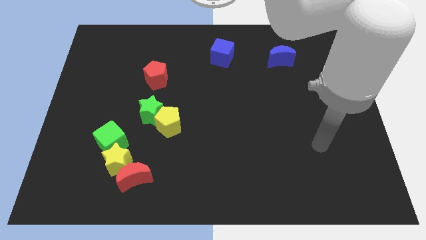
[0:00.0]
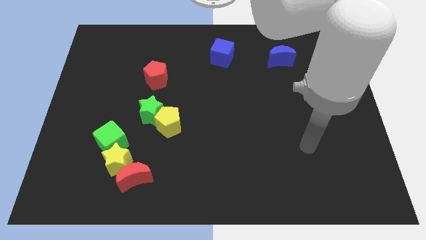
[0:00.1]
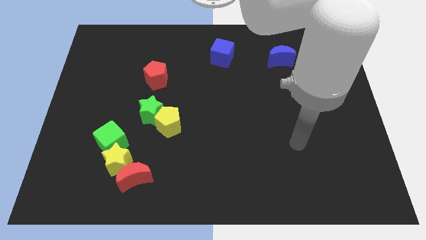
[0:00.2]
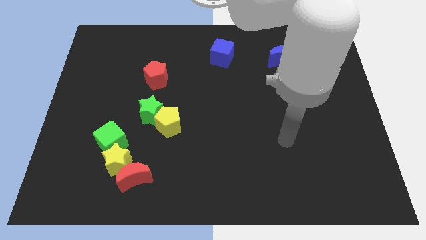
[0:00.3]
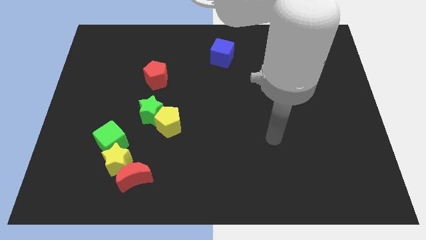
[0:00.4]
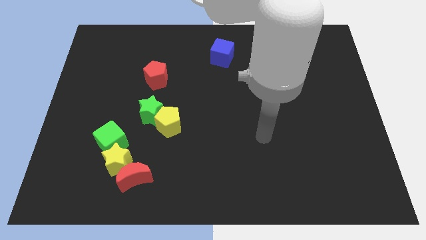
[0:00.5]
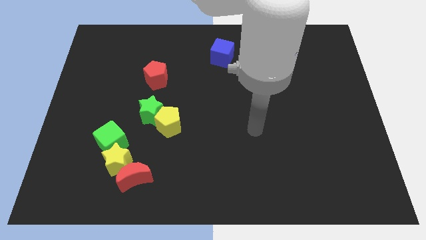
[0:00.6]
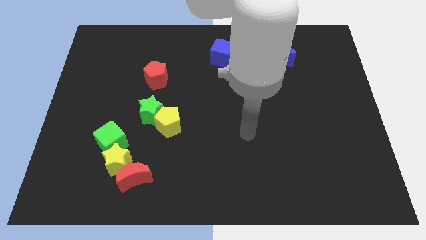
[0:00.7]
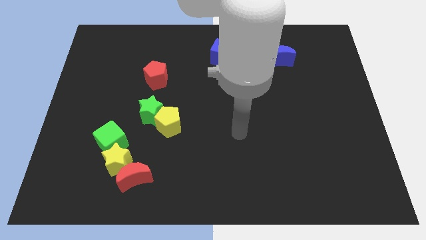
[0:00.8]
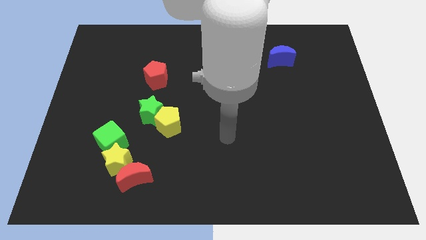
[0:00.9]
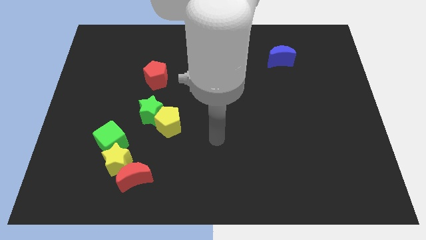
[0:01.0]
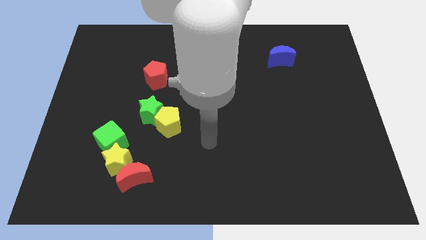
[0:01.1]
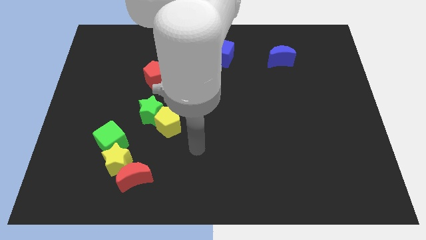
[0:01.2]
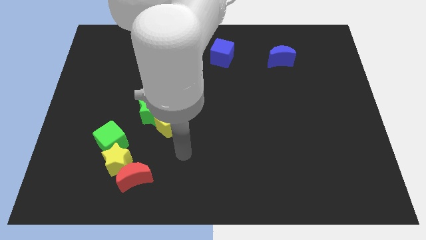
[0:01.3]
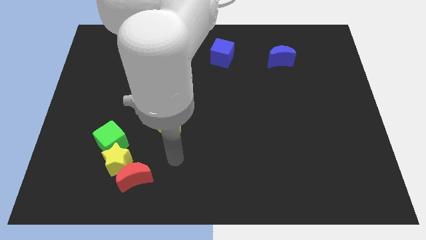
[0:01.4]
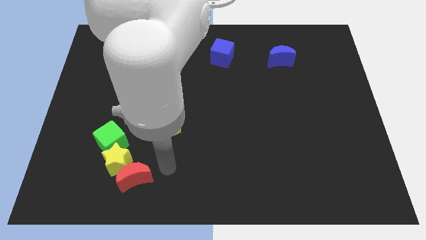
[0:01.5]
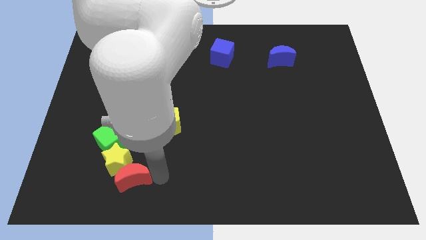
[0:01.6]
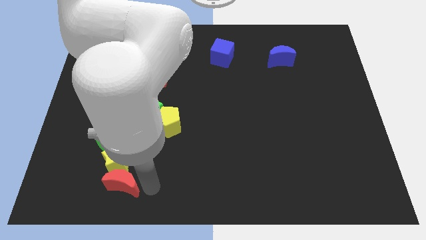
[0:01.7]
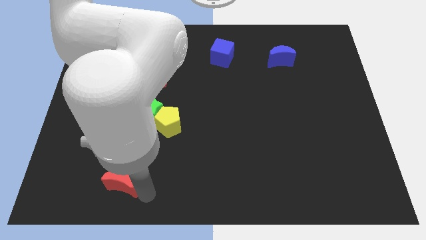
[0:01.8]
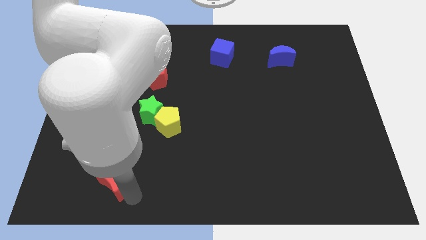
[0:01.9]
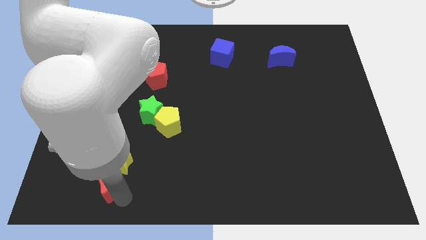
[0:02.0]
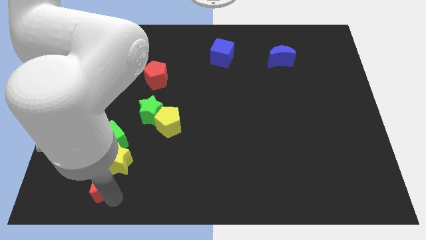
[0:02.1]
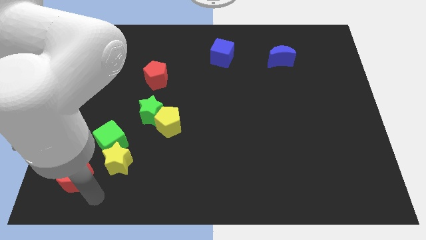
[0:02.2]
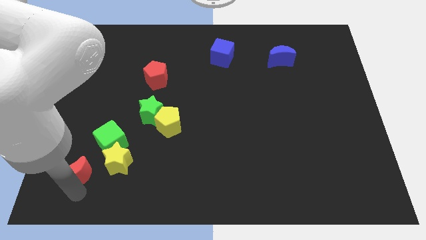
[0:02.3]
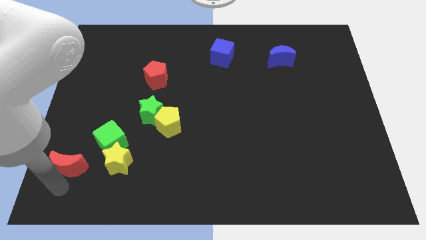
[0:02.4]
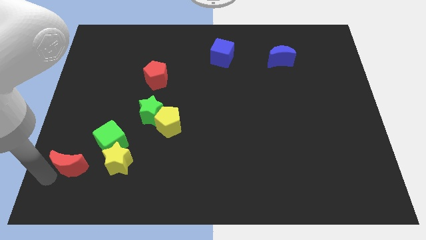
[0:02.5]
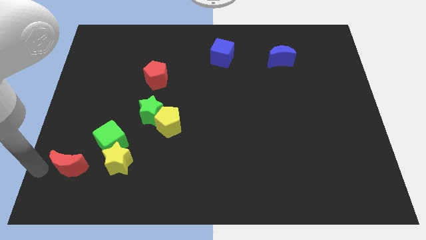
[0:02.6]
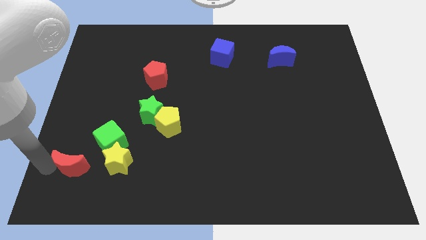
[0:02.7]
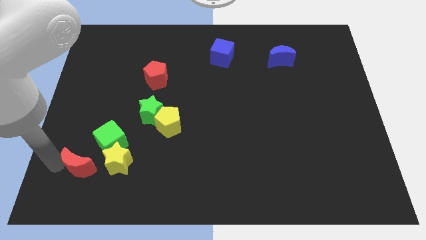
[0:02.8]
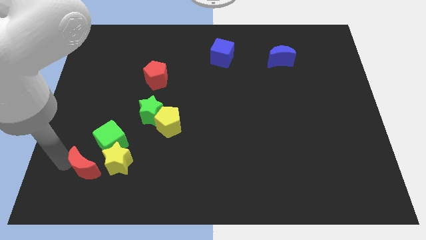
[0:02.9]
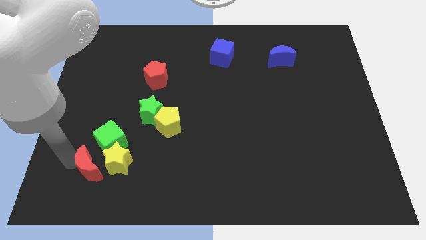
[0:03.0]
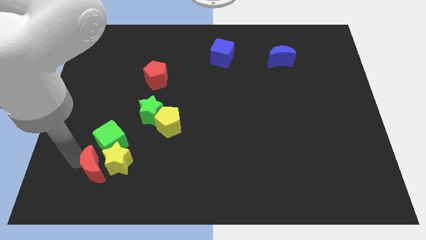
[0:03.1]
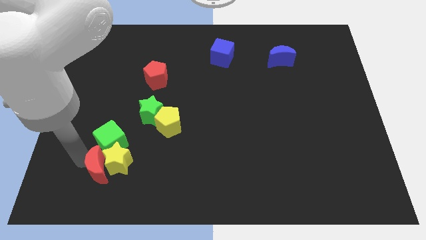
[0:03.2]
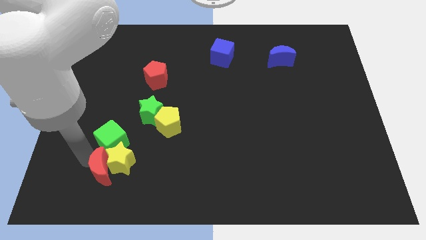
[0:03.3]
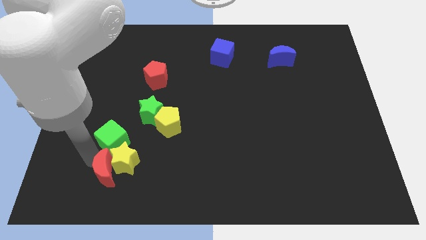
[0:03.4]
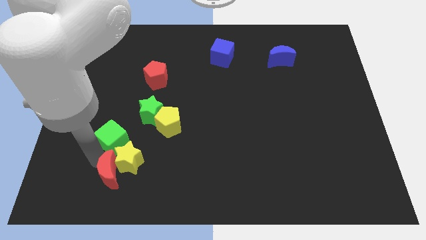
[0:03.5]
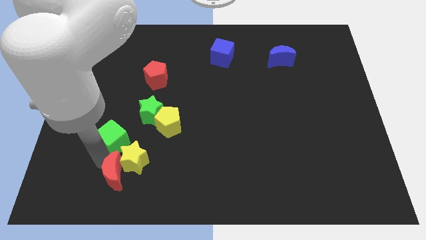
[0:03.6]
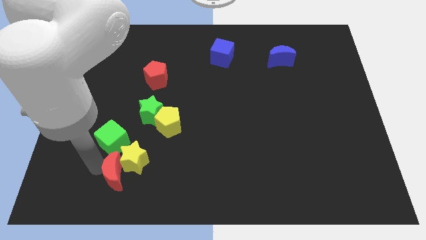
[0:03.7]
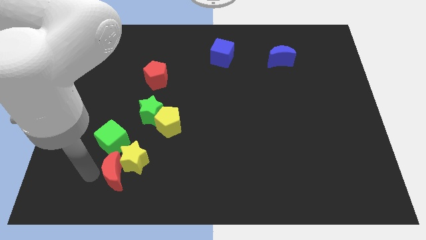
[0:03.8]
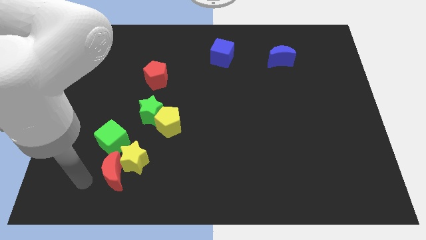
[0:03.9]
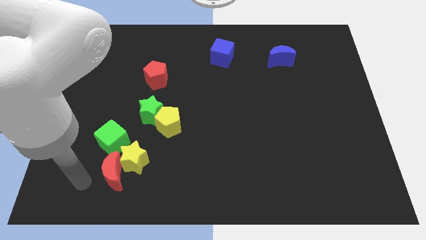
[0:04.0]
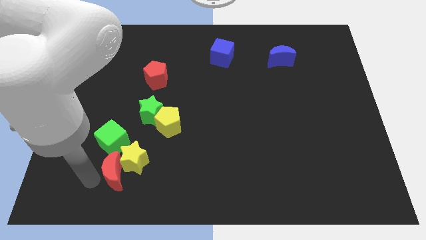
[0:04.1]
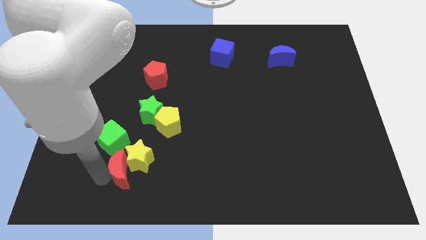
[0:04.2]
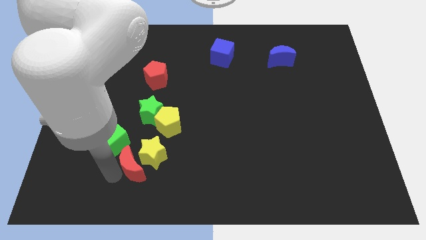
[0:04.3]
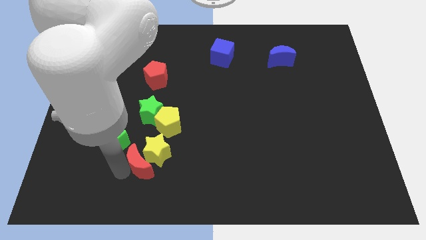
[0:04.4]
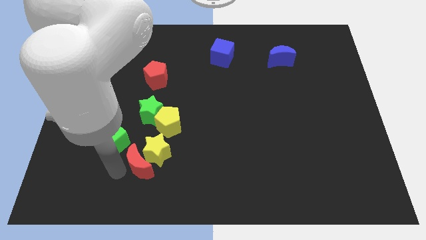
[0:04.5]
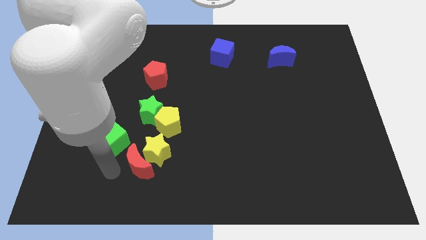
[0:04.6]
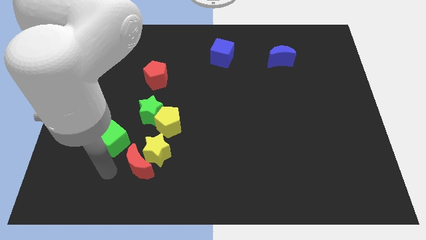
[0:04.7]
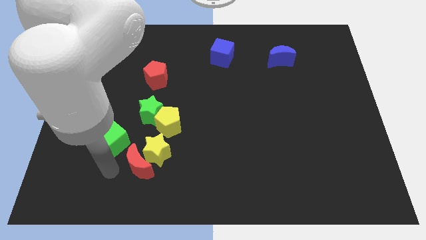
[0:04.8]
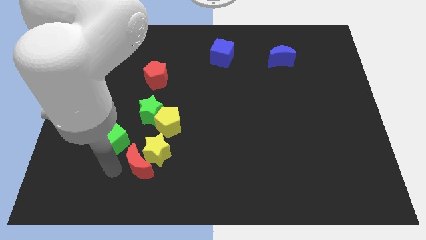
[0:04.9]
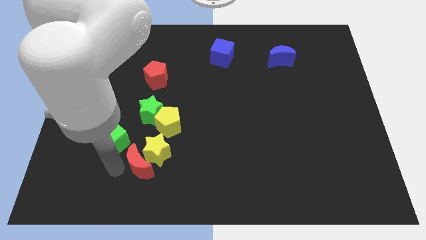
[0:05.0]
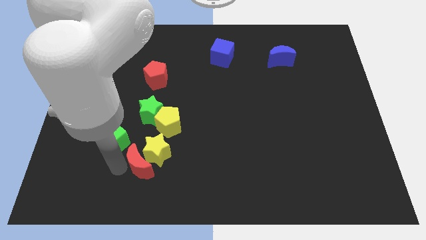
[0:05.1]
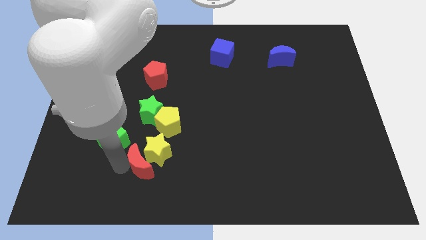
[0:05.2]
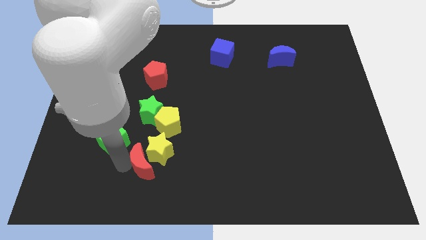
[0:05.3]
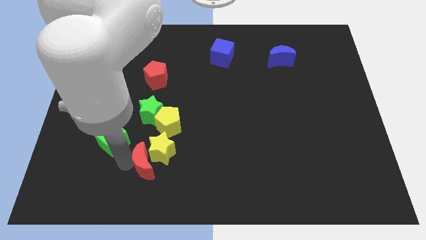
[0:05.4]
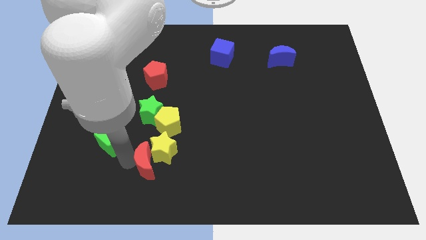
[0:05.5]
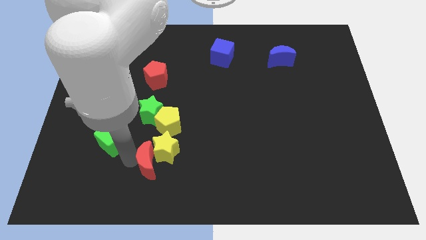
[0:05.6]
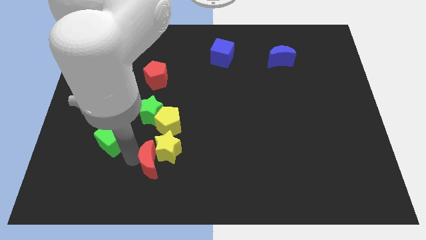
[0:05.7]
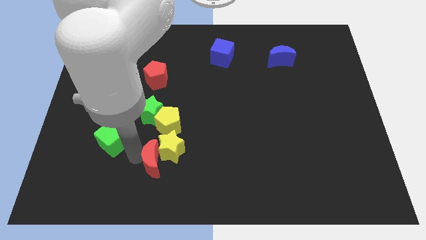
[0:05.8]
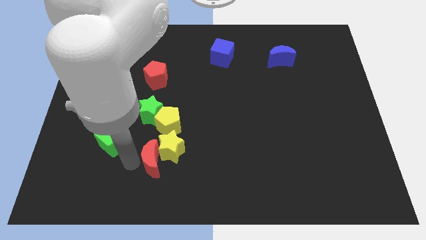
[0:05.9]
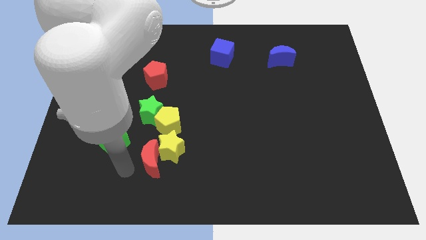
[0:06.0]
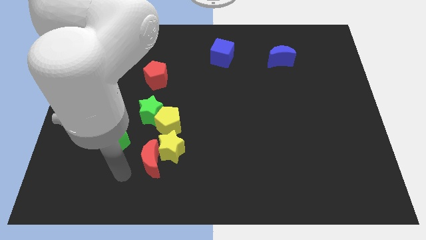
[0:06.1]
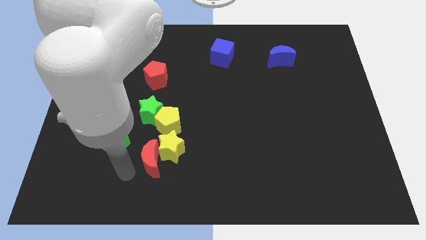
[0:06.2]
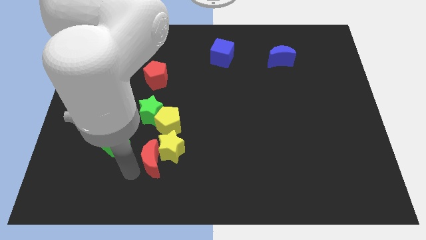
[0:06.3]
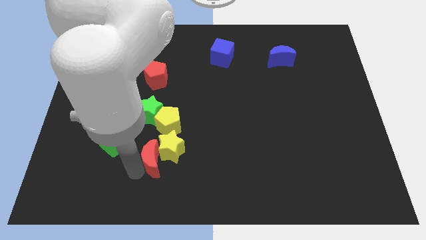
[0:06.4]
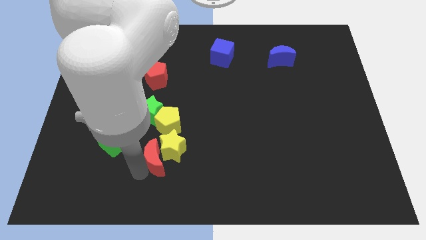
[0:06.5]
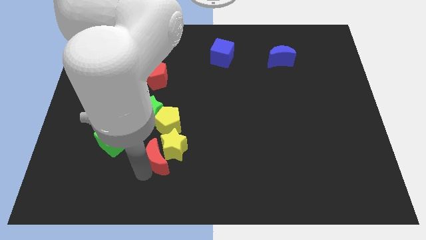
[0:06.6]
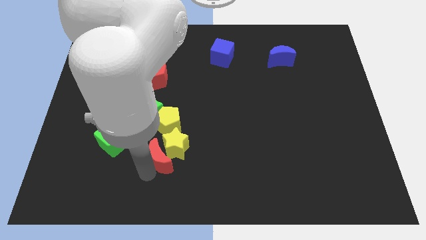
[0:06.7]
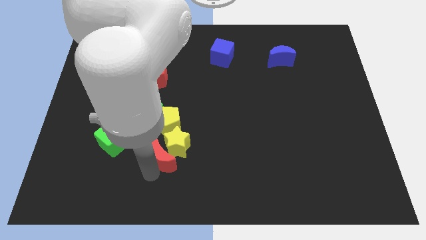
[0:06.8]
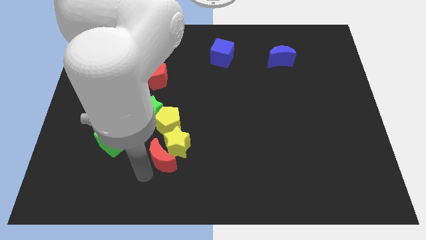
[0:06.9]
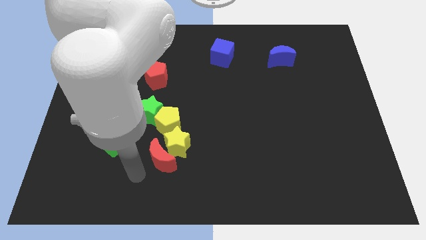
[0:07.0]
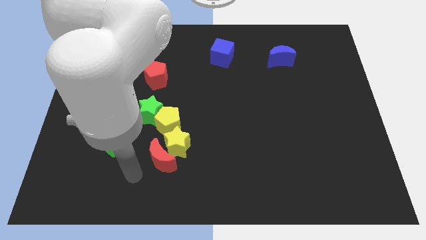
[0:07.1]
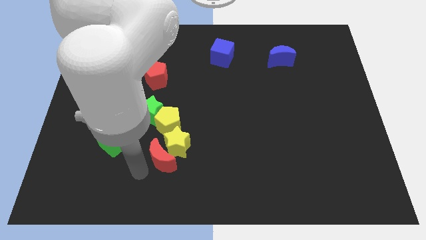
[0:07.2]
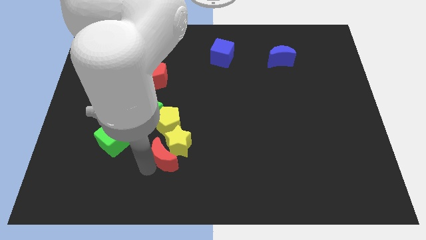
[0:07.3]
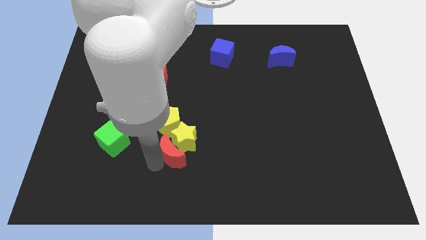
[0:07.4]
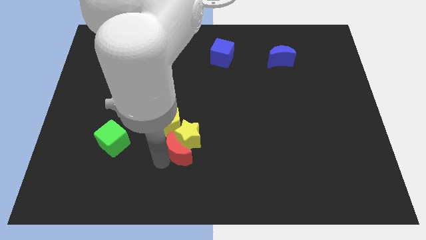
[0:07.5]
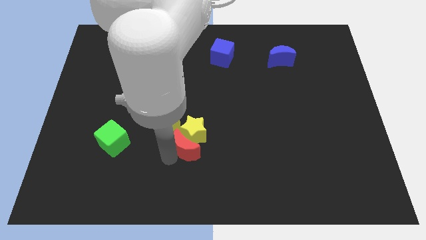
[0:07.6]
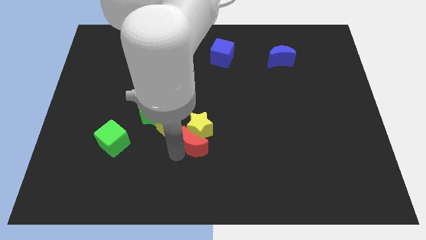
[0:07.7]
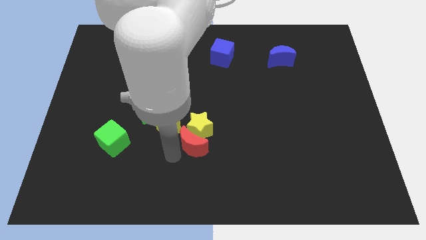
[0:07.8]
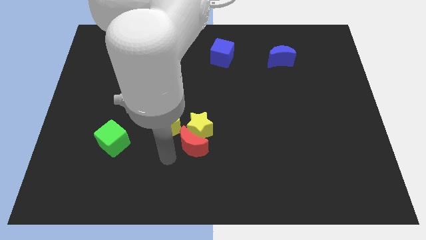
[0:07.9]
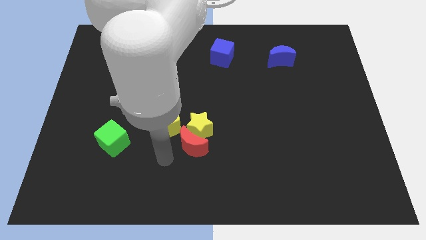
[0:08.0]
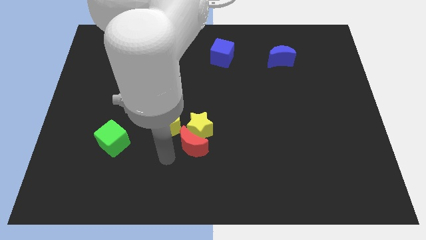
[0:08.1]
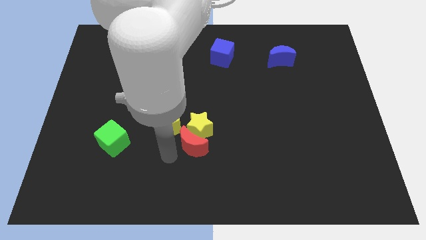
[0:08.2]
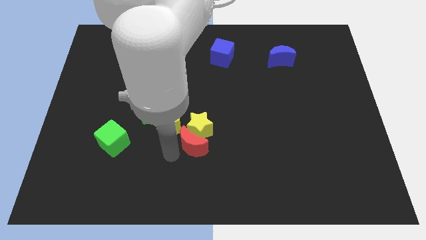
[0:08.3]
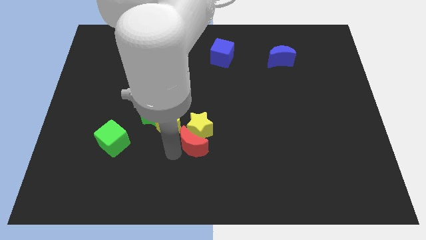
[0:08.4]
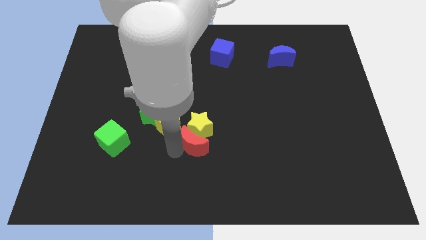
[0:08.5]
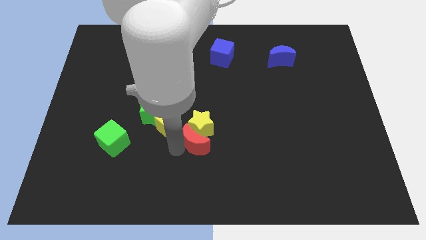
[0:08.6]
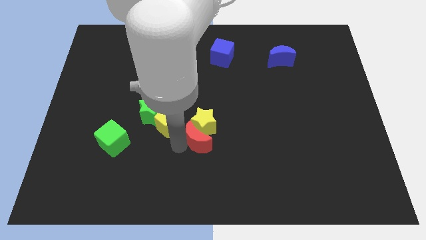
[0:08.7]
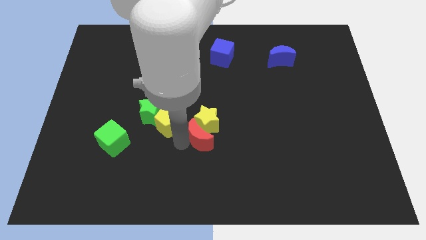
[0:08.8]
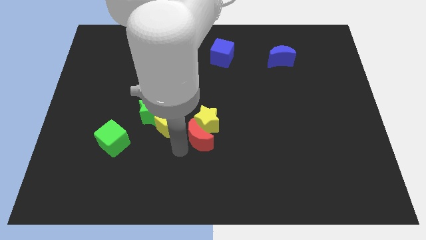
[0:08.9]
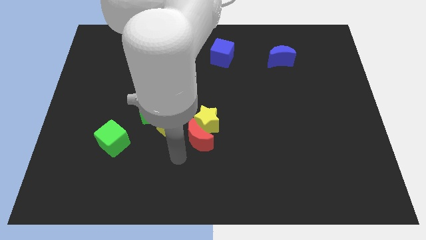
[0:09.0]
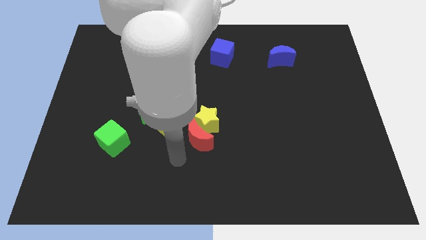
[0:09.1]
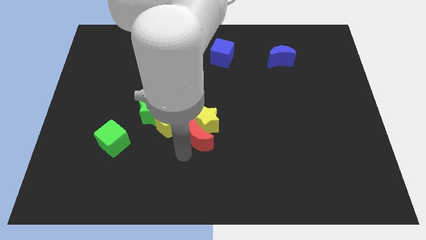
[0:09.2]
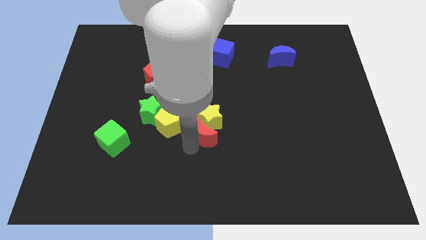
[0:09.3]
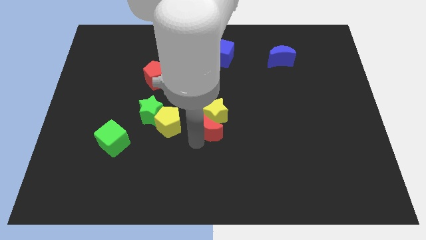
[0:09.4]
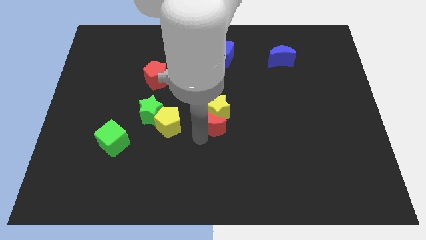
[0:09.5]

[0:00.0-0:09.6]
slide the red moon up and then to the right
